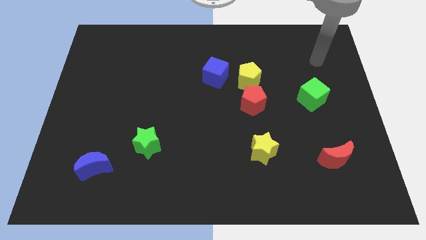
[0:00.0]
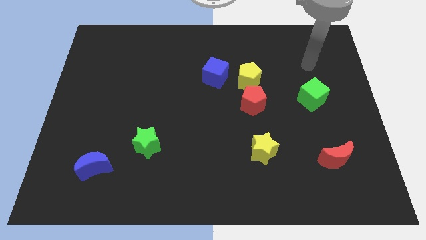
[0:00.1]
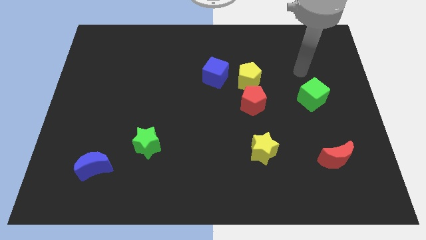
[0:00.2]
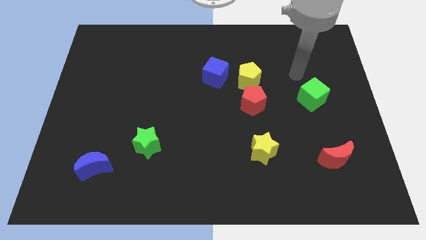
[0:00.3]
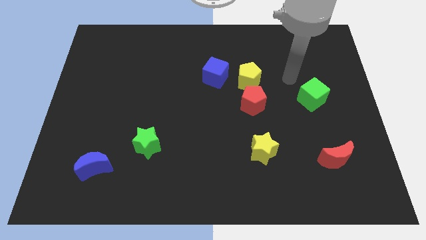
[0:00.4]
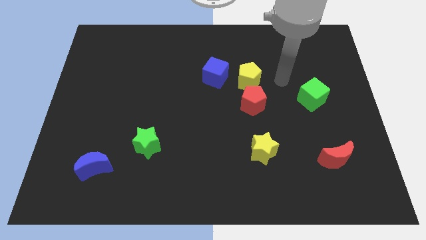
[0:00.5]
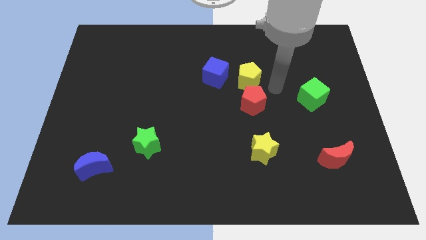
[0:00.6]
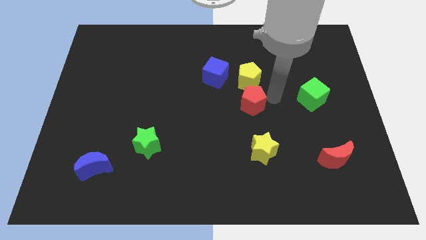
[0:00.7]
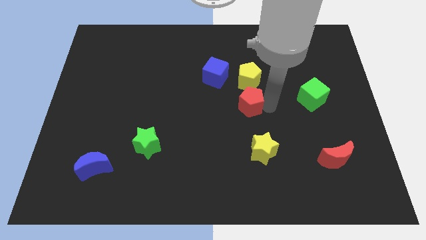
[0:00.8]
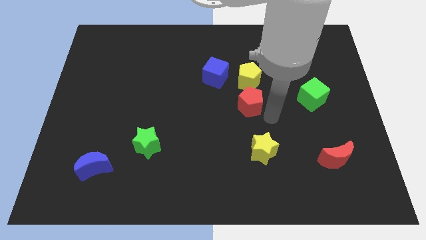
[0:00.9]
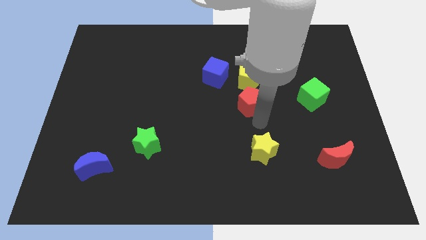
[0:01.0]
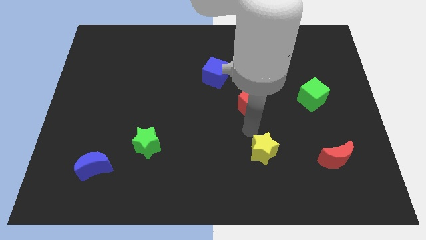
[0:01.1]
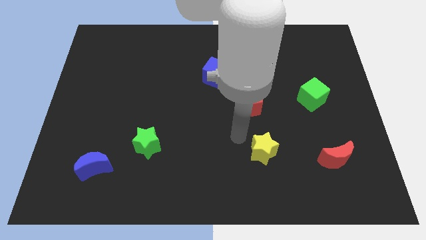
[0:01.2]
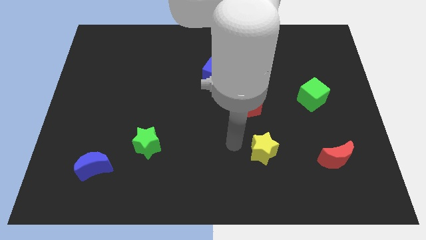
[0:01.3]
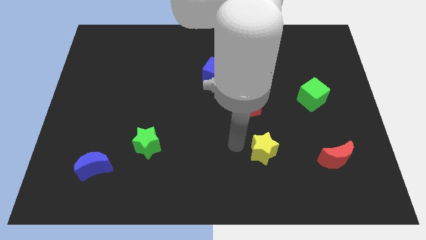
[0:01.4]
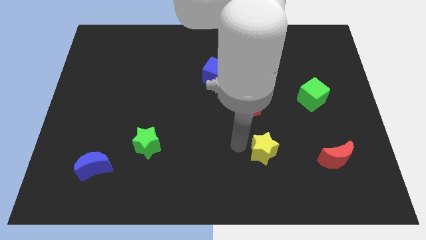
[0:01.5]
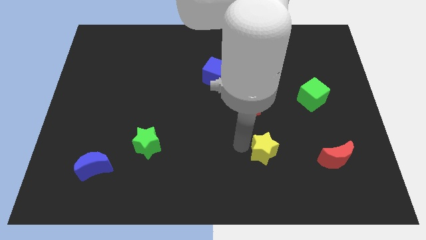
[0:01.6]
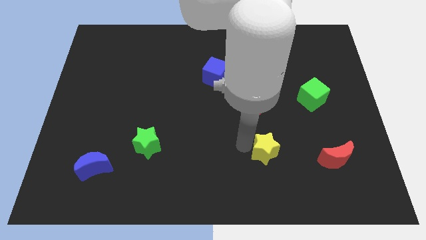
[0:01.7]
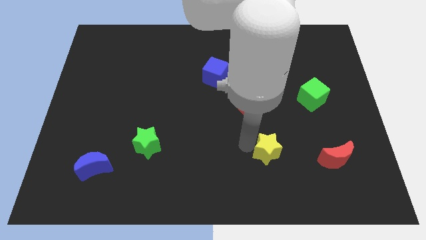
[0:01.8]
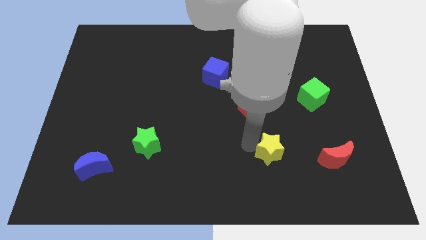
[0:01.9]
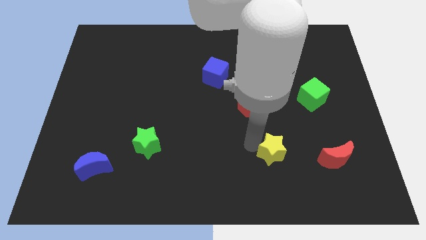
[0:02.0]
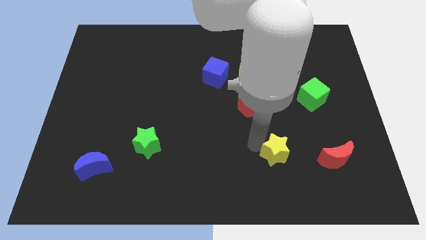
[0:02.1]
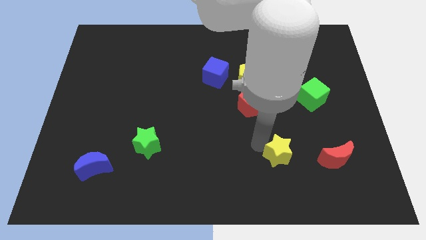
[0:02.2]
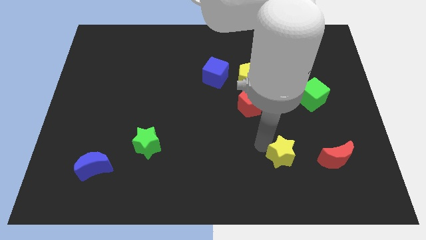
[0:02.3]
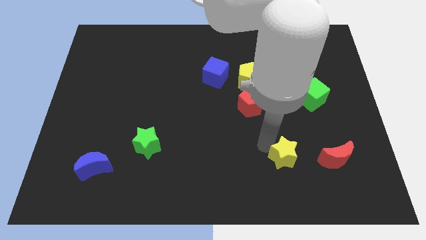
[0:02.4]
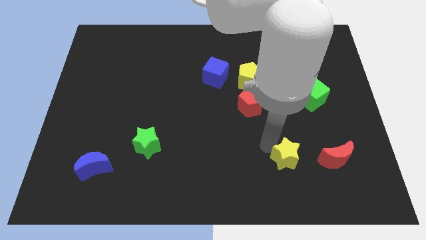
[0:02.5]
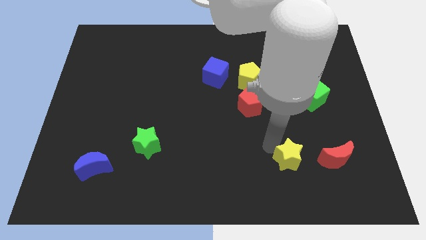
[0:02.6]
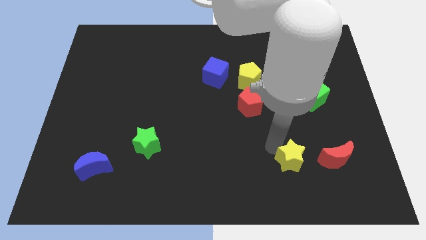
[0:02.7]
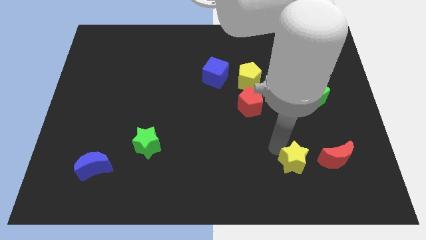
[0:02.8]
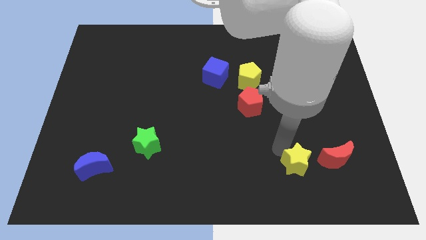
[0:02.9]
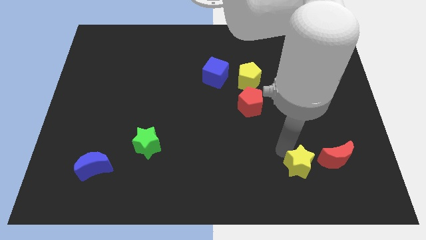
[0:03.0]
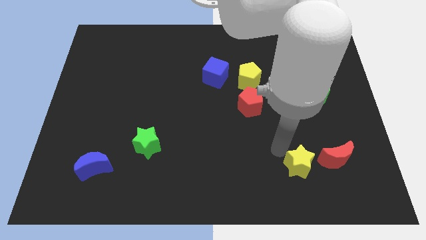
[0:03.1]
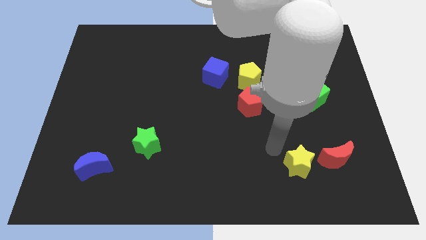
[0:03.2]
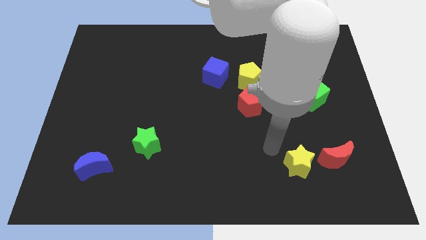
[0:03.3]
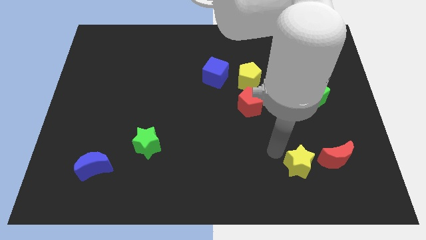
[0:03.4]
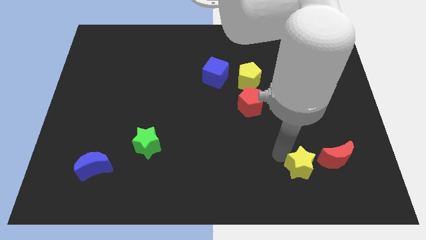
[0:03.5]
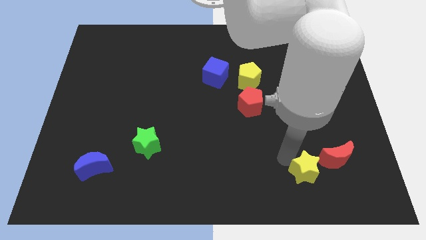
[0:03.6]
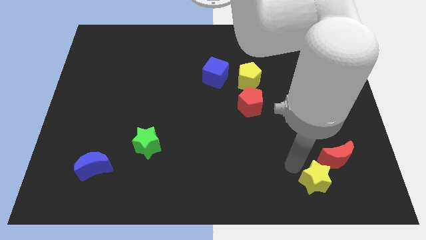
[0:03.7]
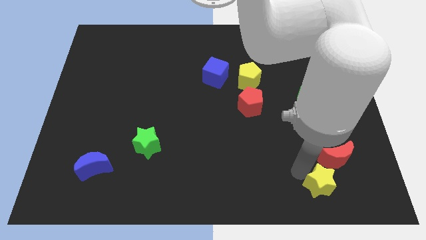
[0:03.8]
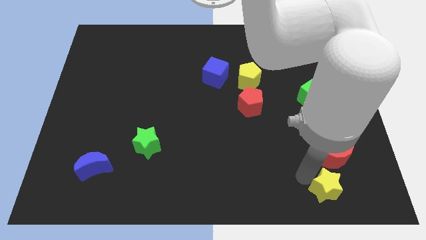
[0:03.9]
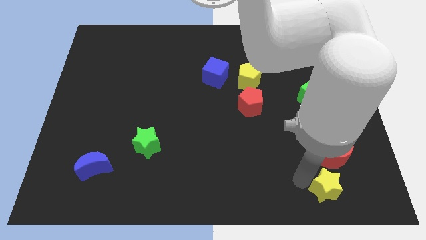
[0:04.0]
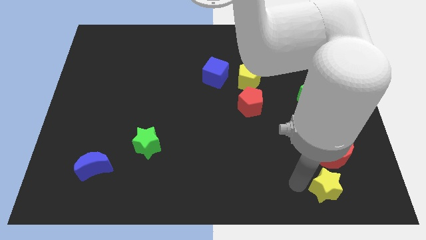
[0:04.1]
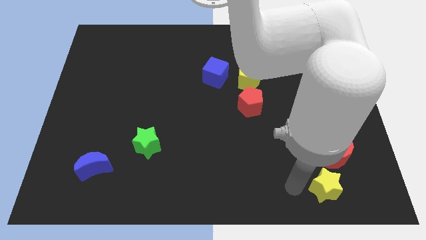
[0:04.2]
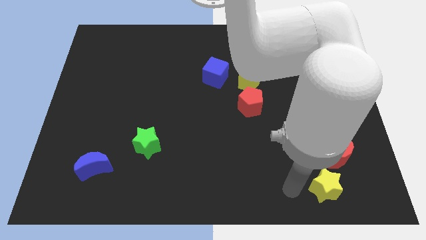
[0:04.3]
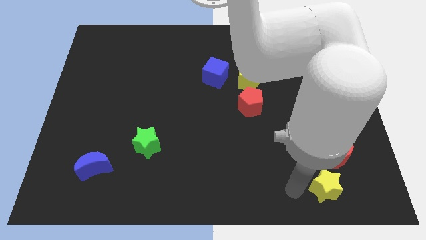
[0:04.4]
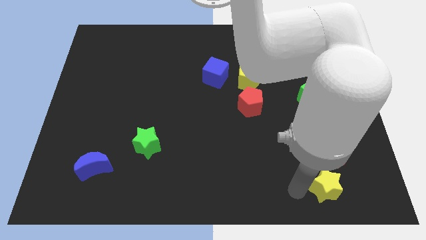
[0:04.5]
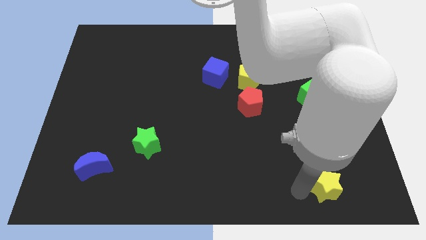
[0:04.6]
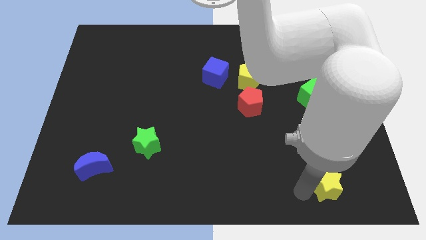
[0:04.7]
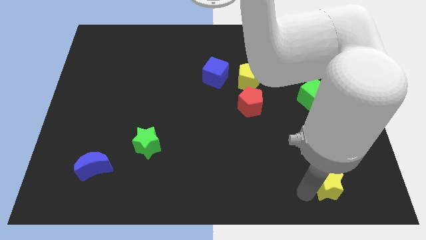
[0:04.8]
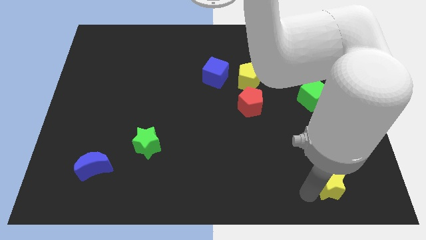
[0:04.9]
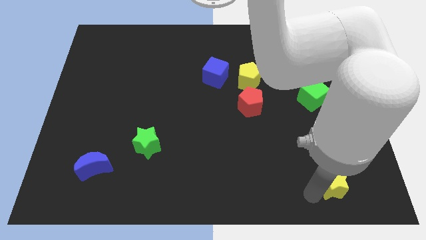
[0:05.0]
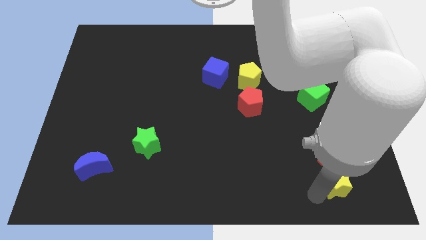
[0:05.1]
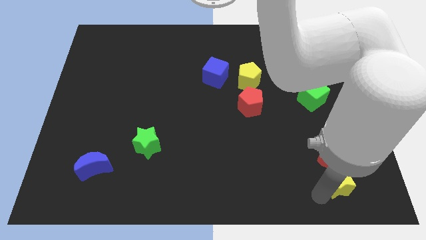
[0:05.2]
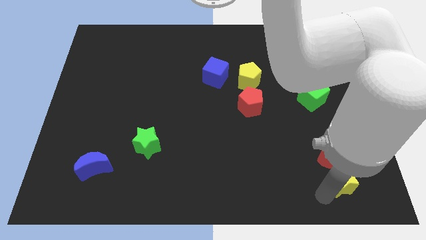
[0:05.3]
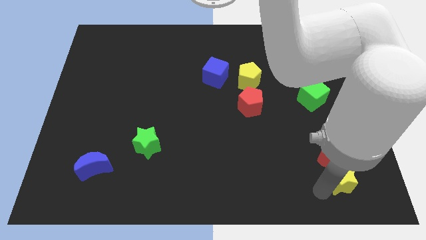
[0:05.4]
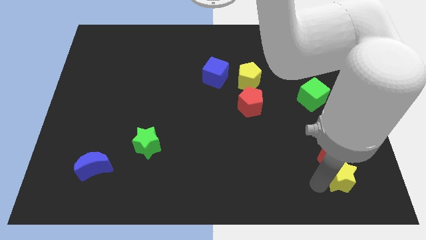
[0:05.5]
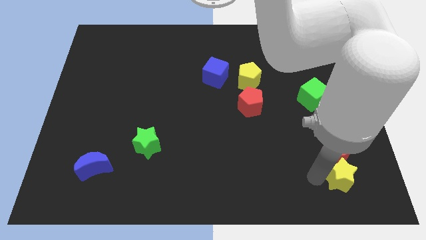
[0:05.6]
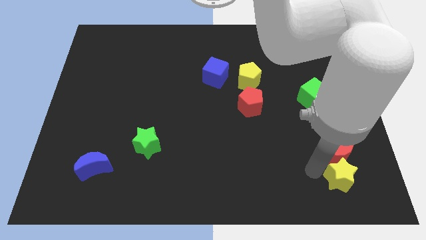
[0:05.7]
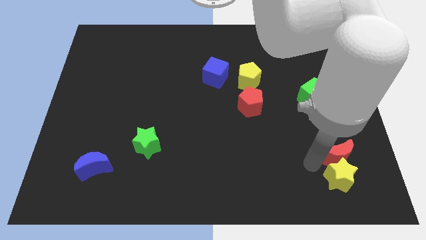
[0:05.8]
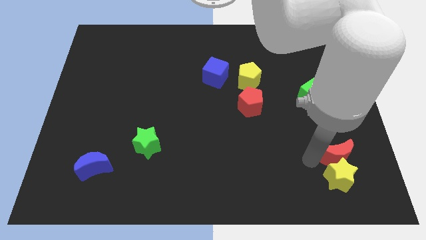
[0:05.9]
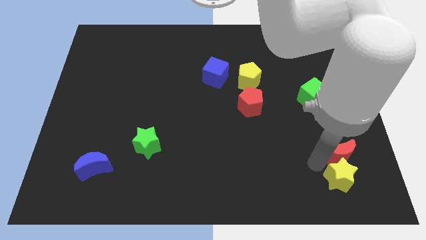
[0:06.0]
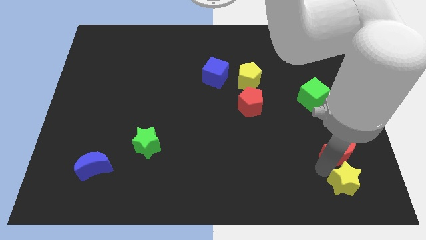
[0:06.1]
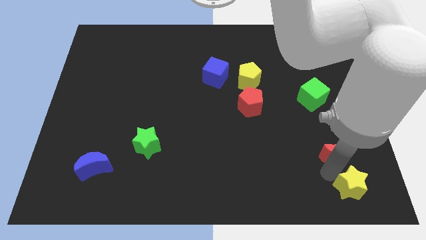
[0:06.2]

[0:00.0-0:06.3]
push the yellow star to the bottom right of the board
